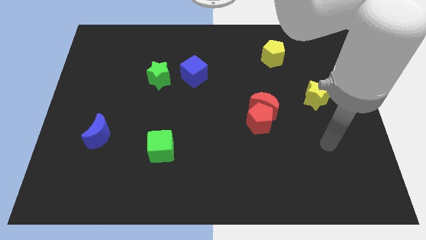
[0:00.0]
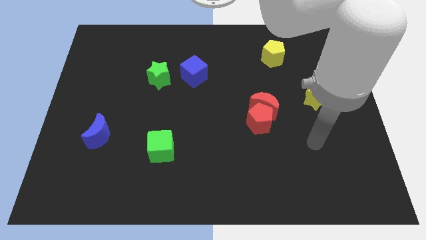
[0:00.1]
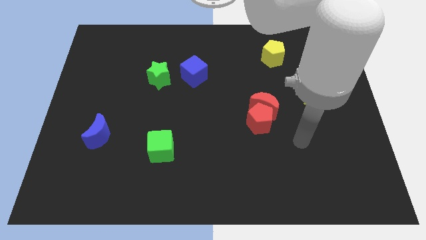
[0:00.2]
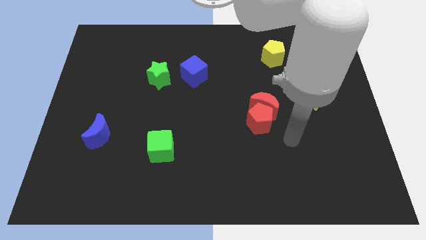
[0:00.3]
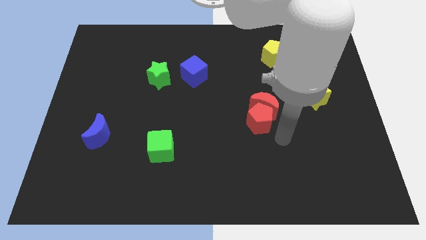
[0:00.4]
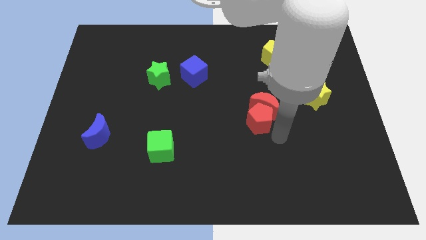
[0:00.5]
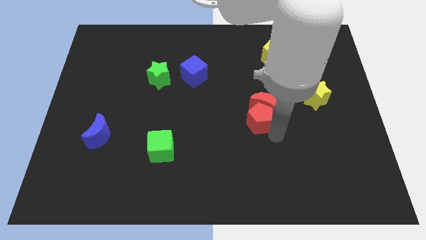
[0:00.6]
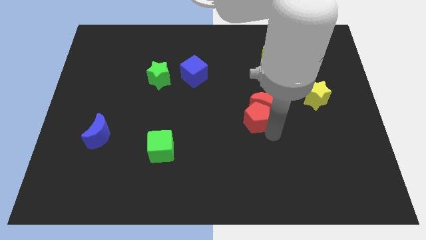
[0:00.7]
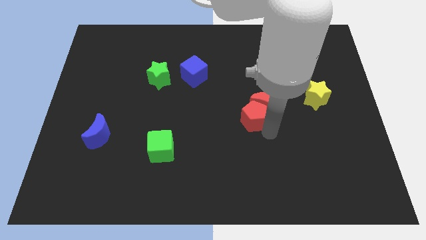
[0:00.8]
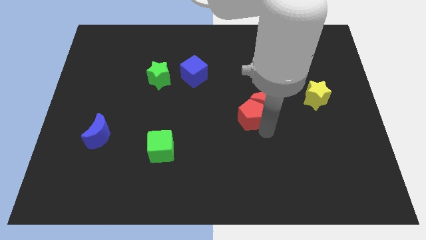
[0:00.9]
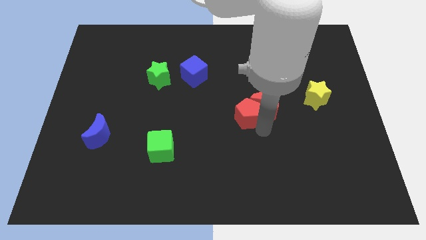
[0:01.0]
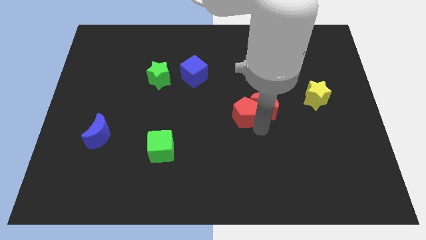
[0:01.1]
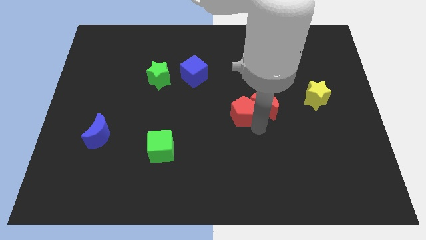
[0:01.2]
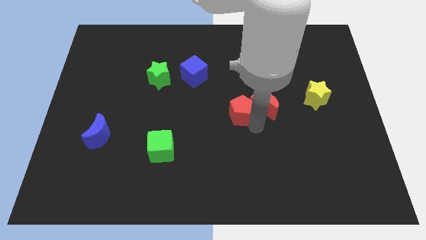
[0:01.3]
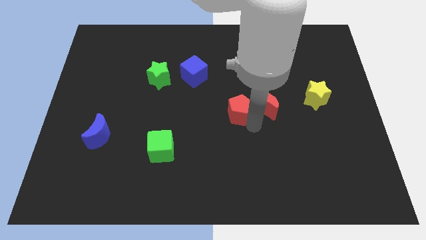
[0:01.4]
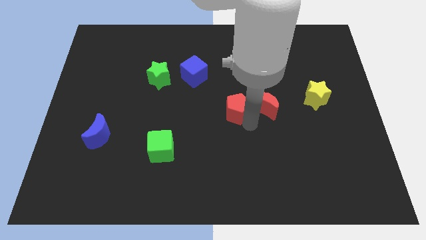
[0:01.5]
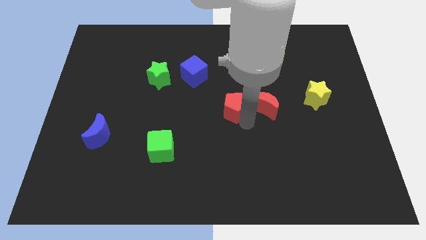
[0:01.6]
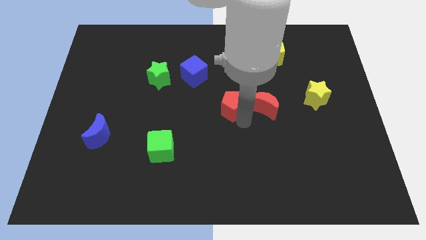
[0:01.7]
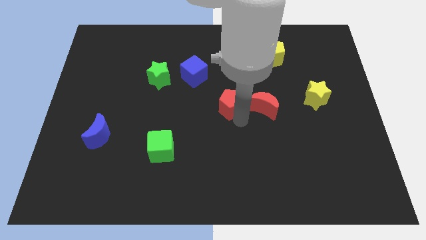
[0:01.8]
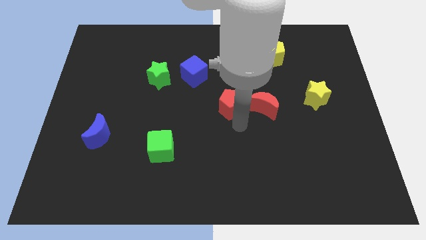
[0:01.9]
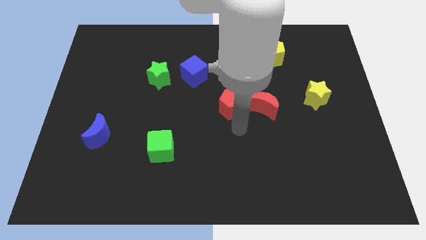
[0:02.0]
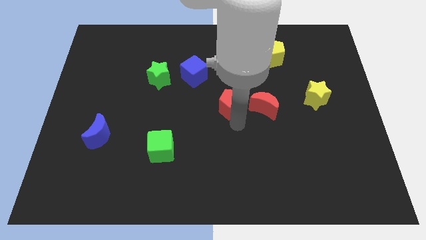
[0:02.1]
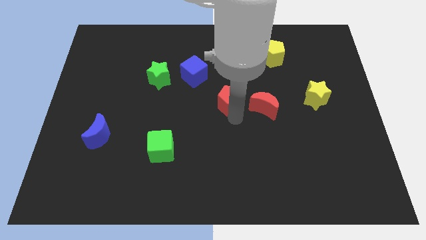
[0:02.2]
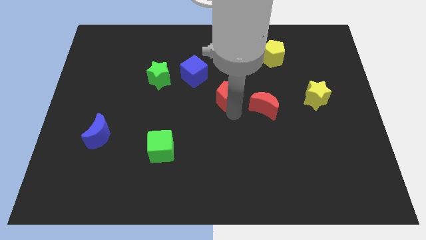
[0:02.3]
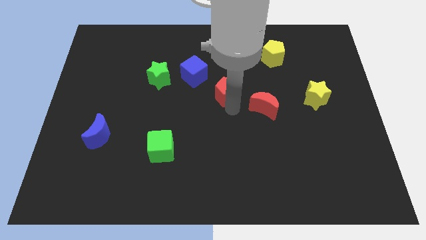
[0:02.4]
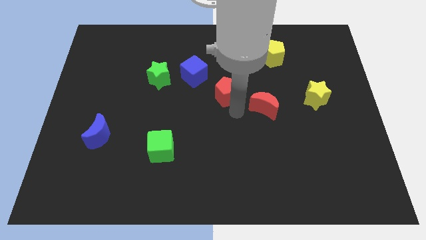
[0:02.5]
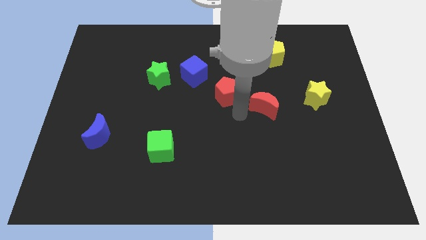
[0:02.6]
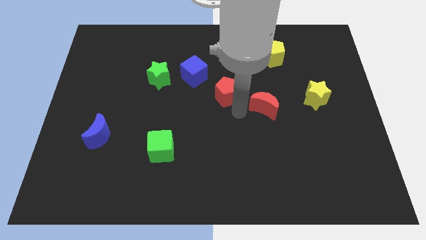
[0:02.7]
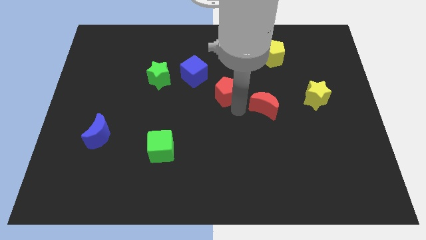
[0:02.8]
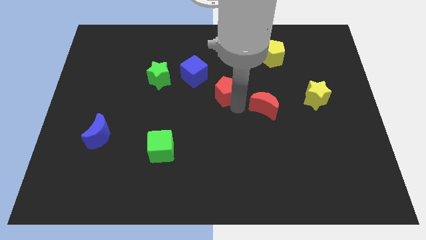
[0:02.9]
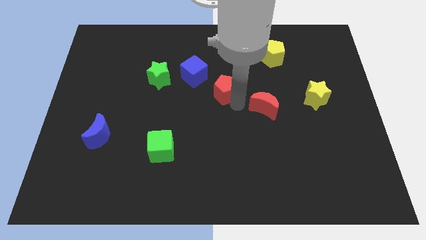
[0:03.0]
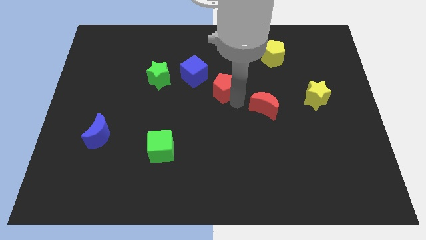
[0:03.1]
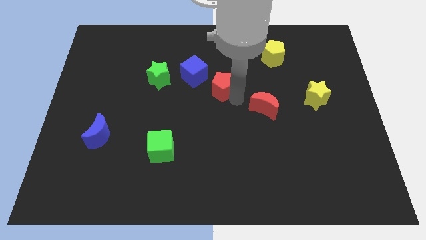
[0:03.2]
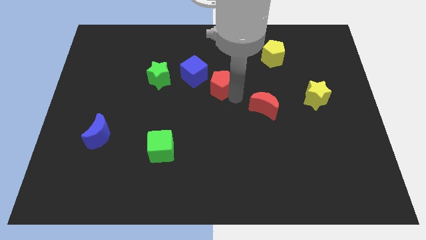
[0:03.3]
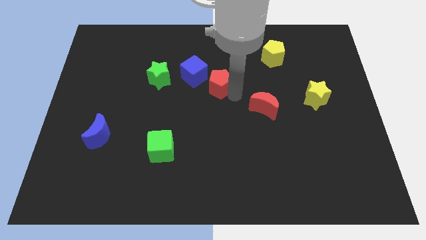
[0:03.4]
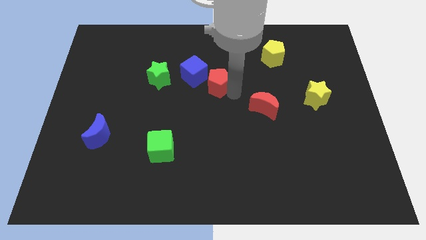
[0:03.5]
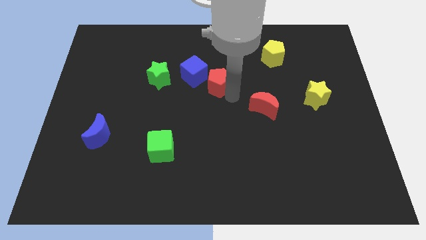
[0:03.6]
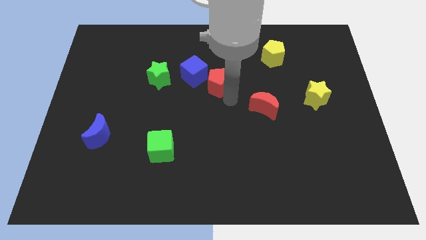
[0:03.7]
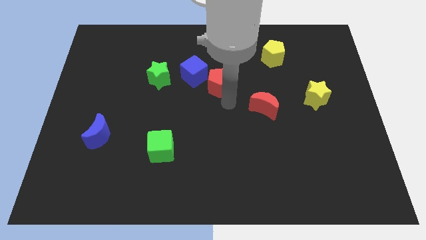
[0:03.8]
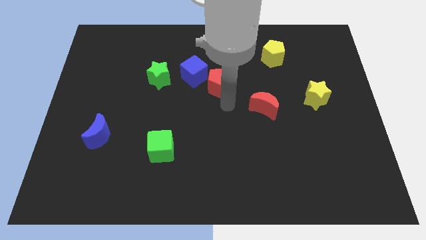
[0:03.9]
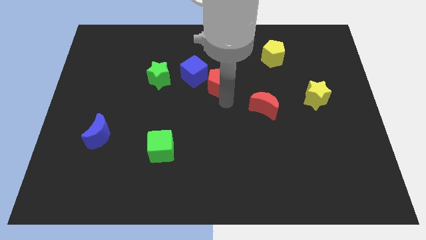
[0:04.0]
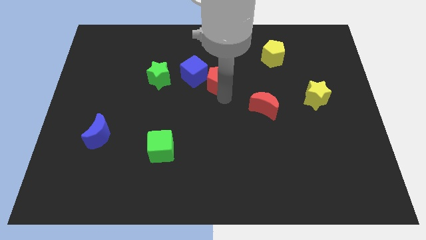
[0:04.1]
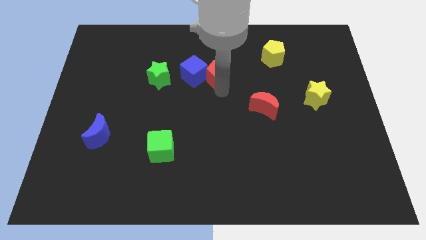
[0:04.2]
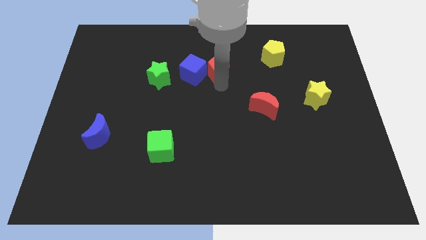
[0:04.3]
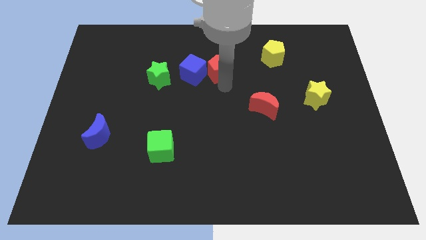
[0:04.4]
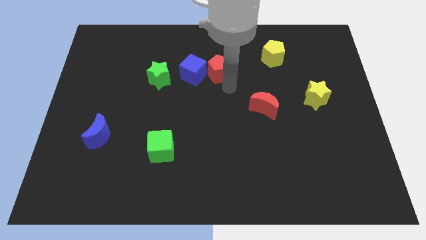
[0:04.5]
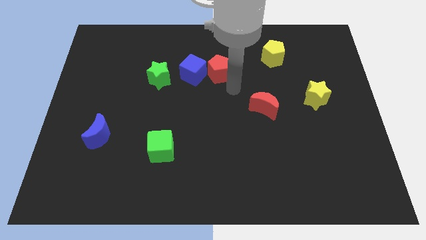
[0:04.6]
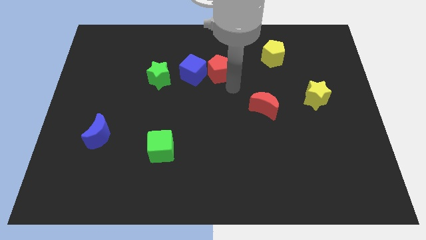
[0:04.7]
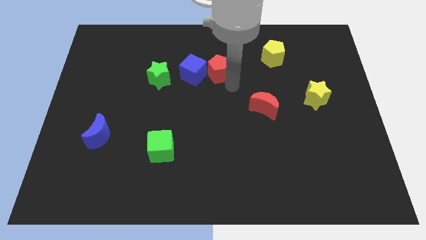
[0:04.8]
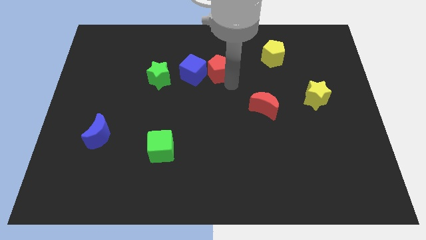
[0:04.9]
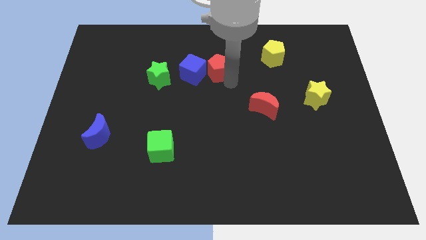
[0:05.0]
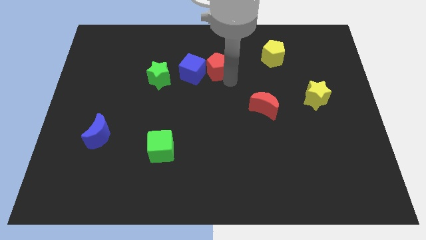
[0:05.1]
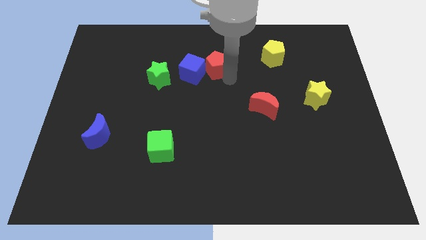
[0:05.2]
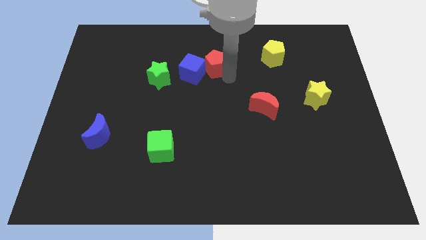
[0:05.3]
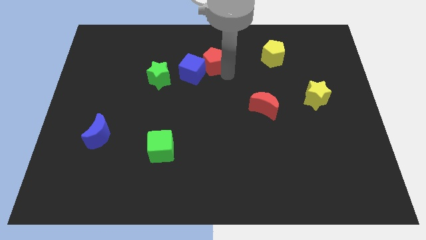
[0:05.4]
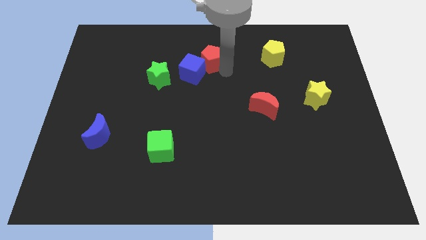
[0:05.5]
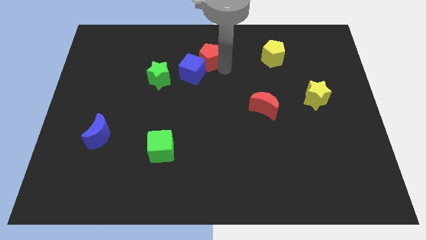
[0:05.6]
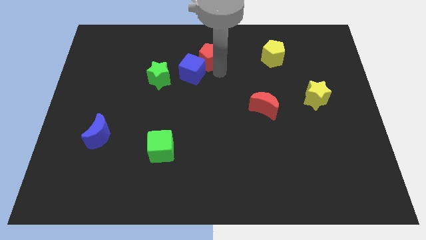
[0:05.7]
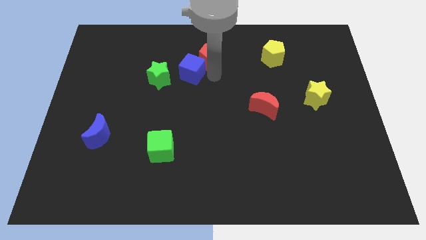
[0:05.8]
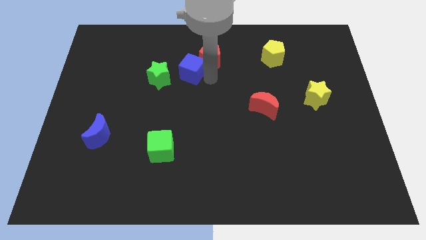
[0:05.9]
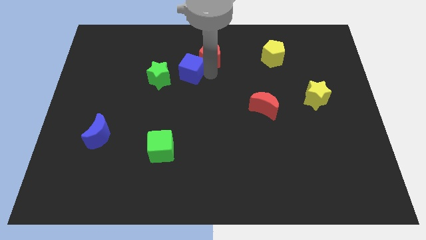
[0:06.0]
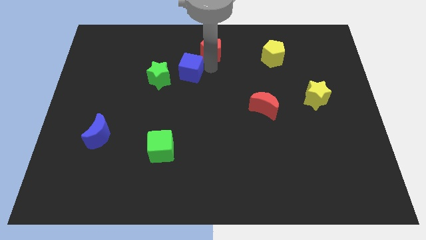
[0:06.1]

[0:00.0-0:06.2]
push the red pentagon to the towards your base
